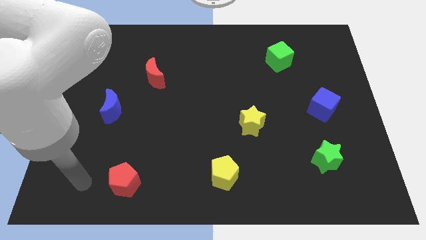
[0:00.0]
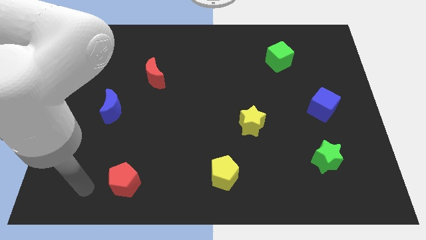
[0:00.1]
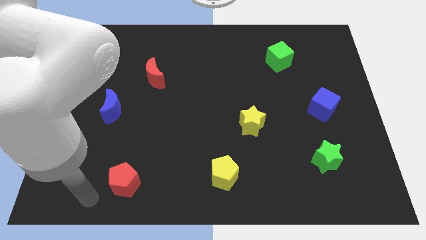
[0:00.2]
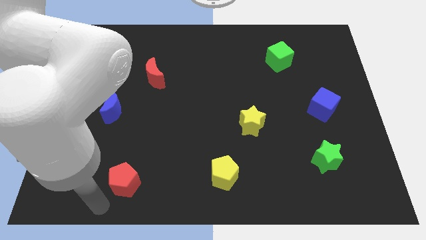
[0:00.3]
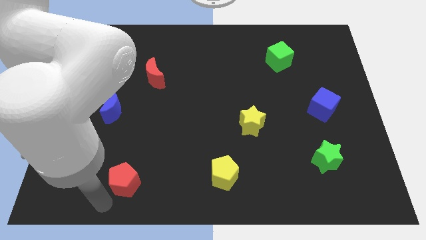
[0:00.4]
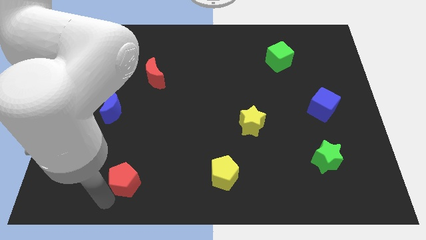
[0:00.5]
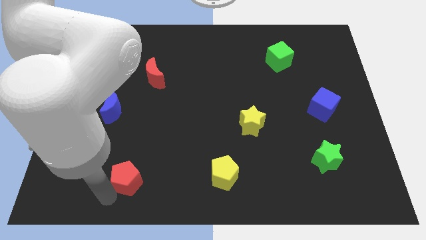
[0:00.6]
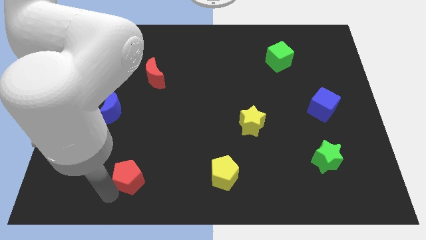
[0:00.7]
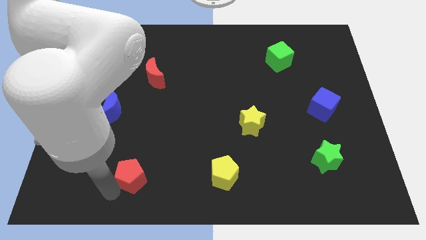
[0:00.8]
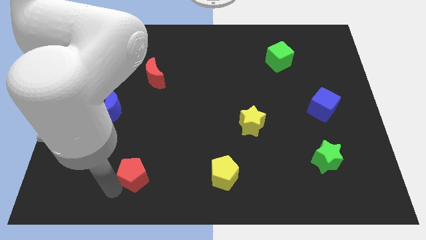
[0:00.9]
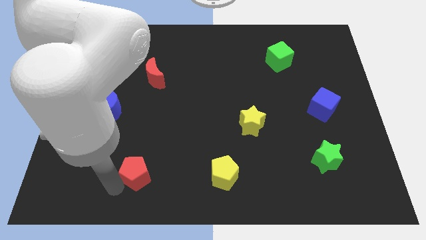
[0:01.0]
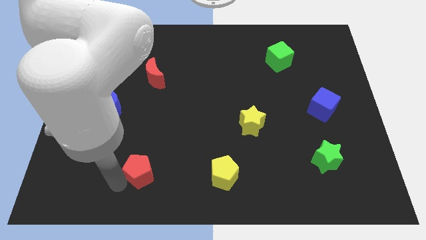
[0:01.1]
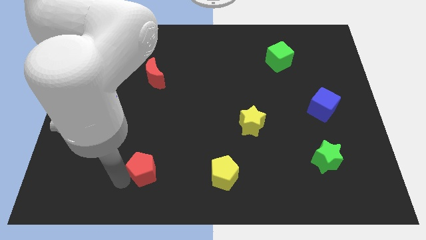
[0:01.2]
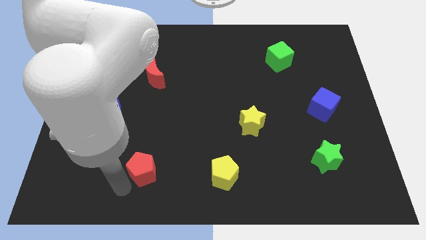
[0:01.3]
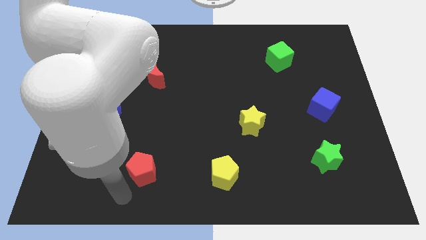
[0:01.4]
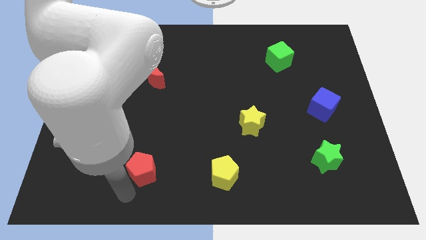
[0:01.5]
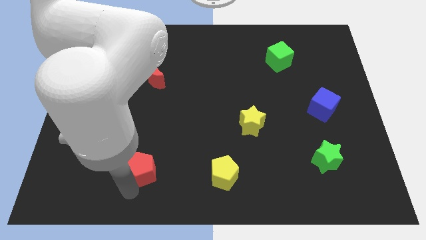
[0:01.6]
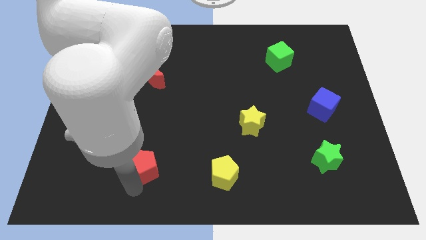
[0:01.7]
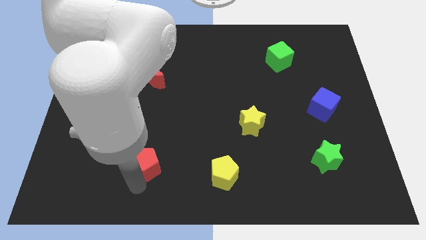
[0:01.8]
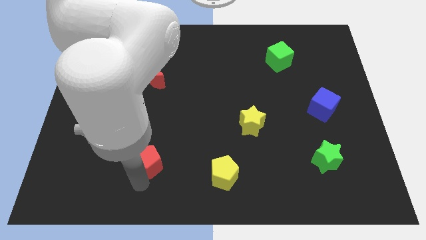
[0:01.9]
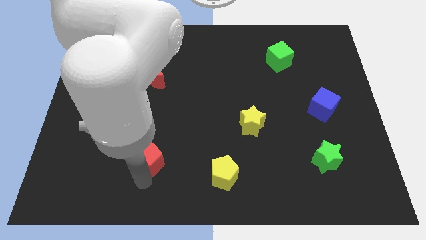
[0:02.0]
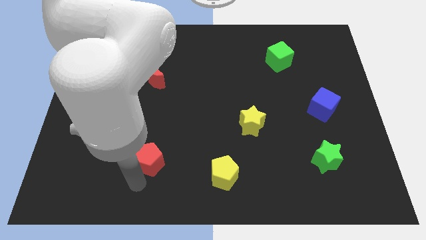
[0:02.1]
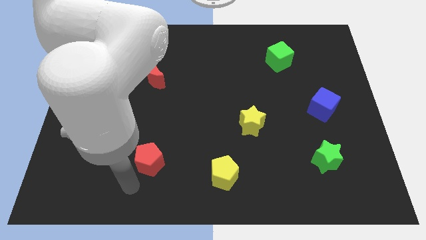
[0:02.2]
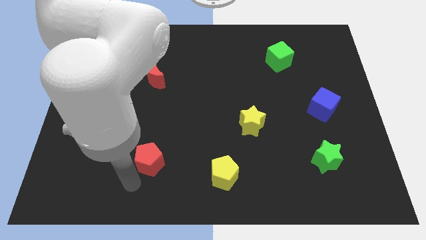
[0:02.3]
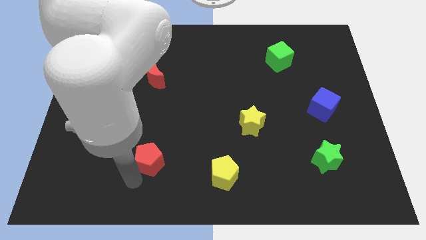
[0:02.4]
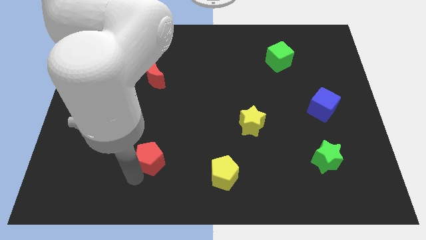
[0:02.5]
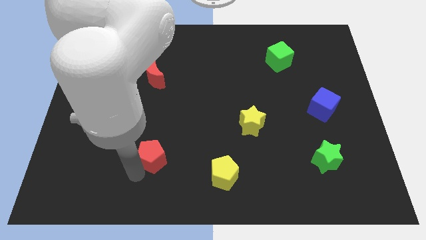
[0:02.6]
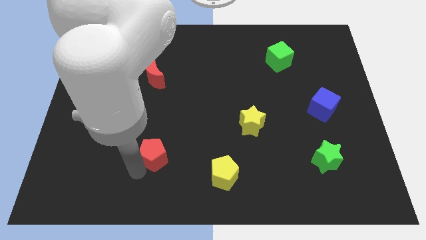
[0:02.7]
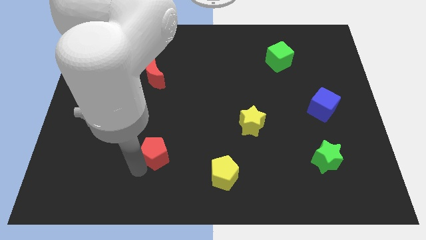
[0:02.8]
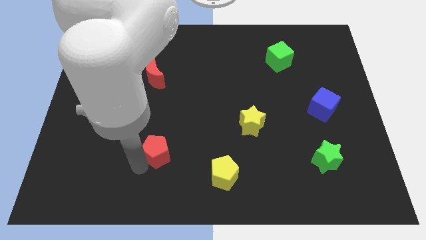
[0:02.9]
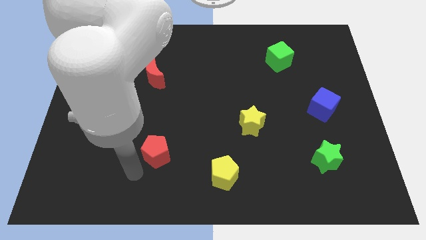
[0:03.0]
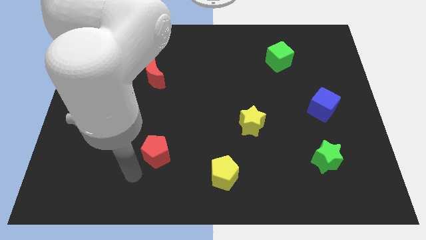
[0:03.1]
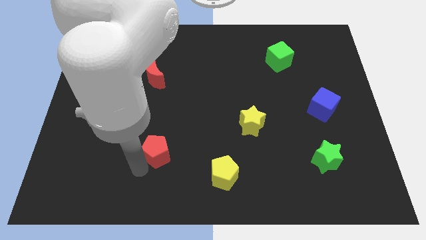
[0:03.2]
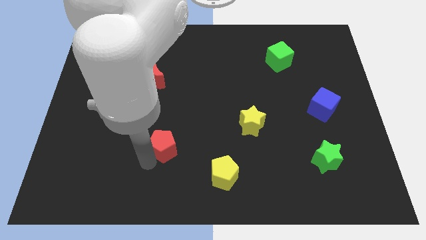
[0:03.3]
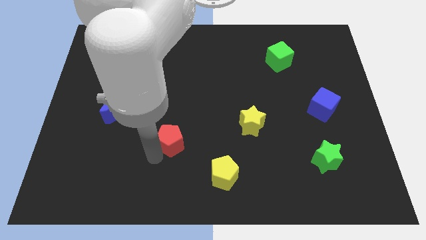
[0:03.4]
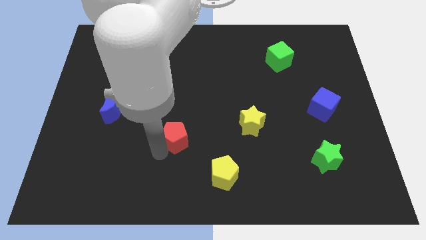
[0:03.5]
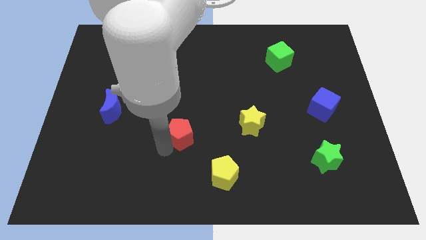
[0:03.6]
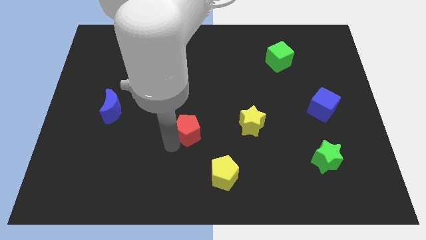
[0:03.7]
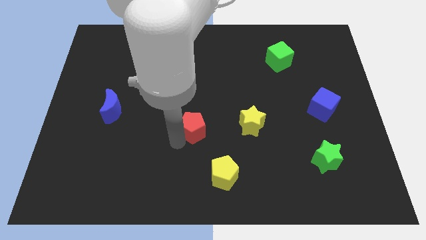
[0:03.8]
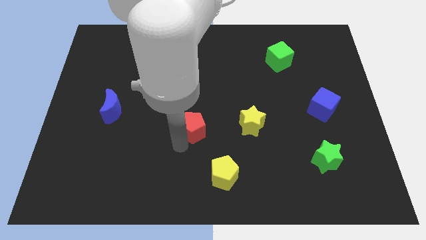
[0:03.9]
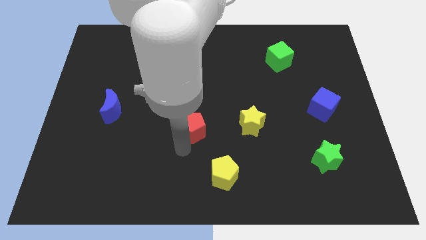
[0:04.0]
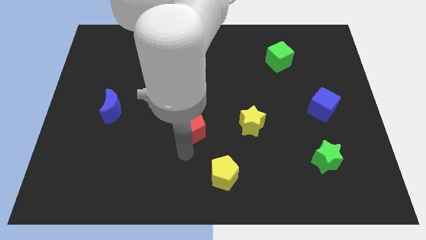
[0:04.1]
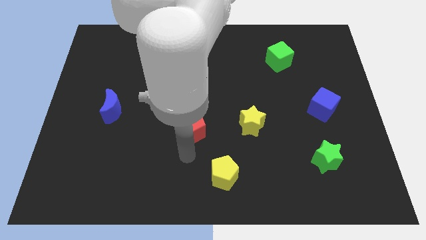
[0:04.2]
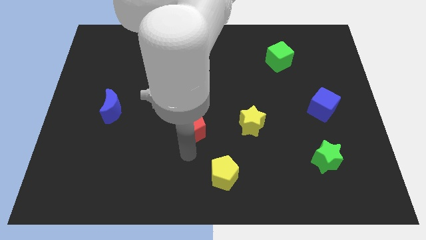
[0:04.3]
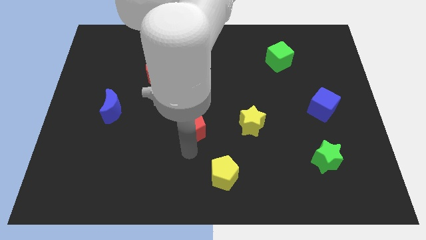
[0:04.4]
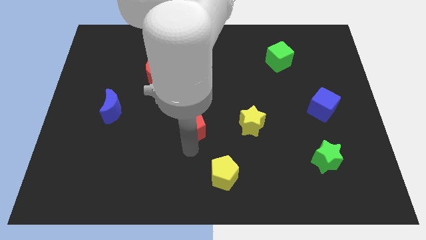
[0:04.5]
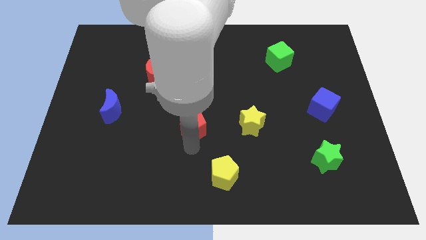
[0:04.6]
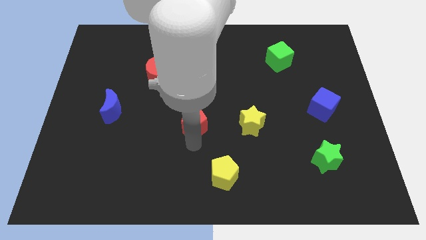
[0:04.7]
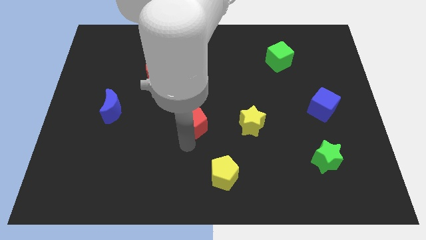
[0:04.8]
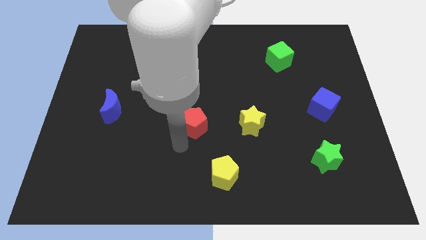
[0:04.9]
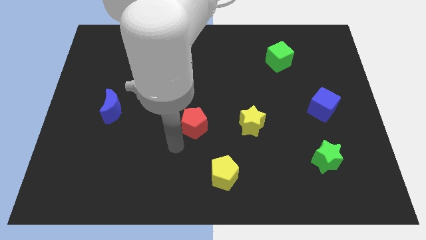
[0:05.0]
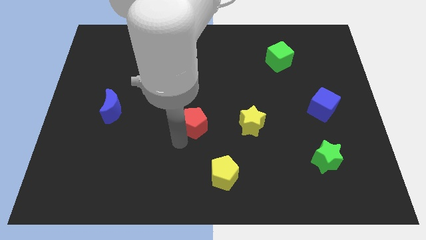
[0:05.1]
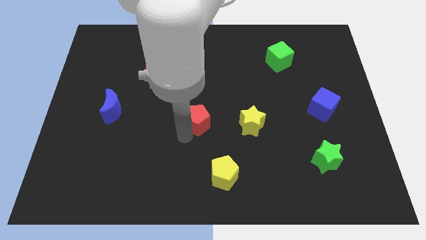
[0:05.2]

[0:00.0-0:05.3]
move the red pentagon up and right

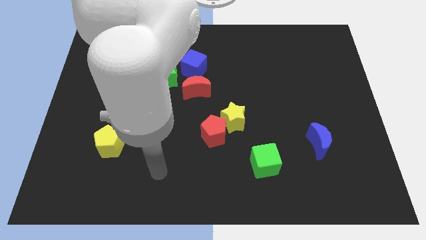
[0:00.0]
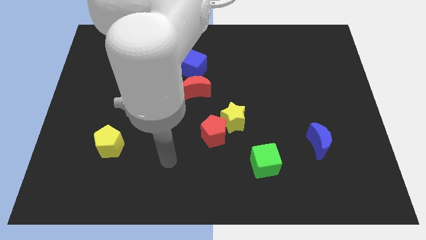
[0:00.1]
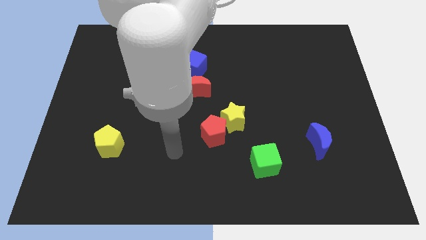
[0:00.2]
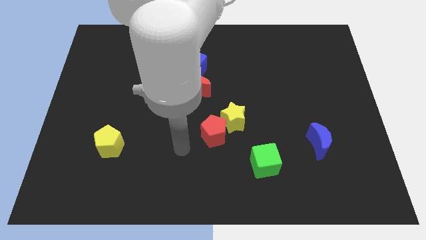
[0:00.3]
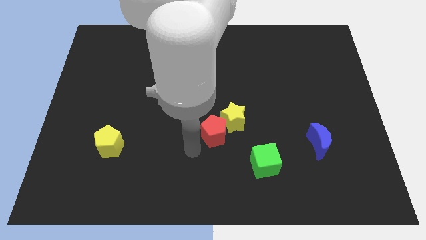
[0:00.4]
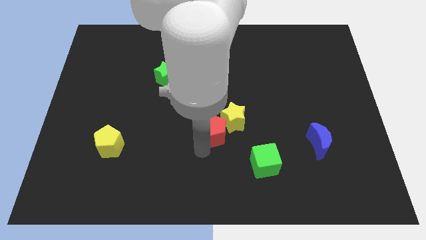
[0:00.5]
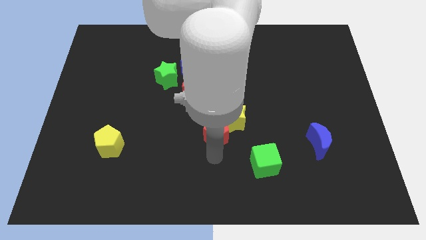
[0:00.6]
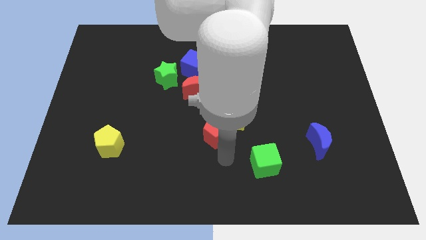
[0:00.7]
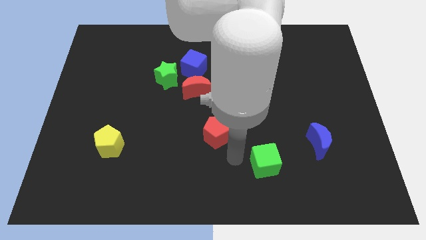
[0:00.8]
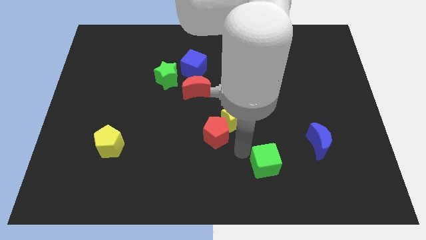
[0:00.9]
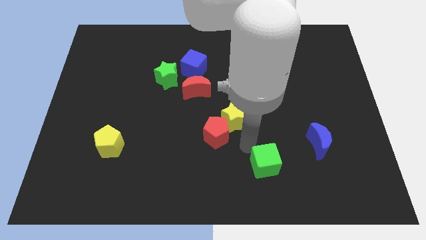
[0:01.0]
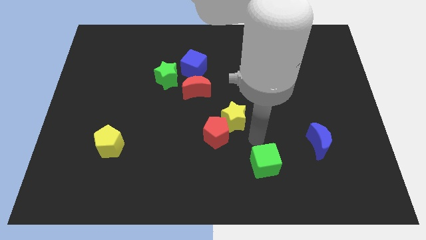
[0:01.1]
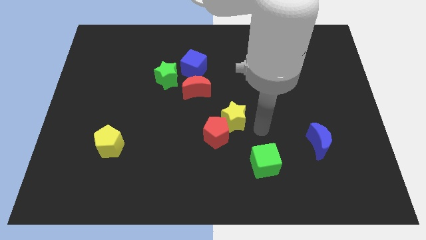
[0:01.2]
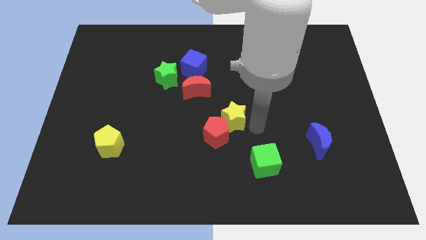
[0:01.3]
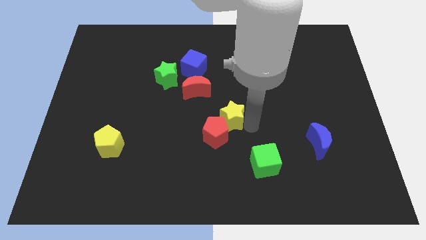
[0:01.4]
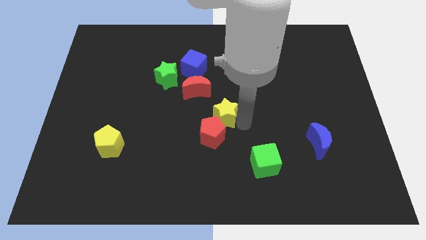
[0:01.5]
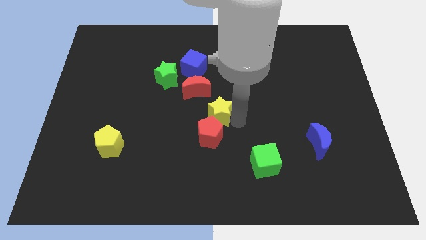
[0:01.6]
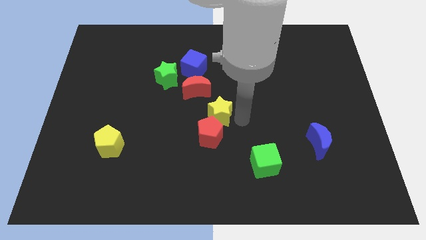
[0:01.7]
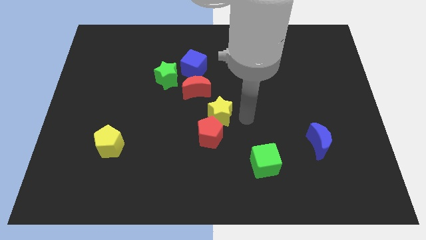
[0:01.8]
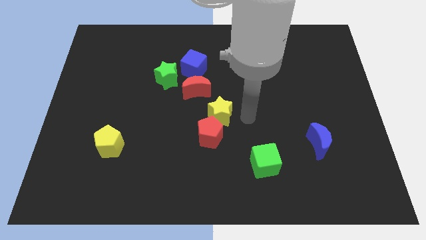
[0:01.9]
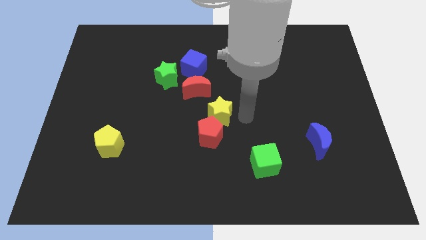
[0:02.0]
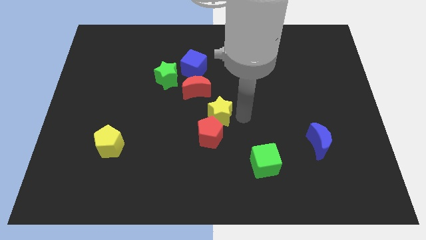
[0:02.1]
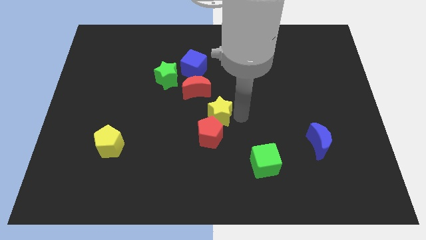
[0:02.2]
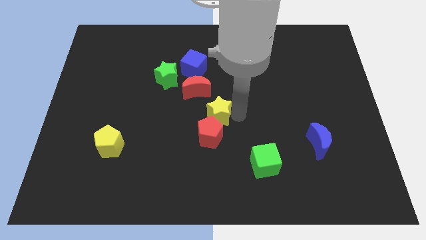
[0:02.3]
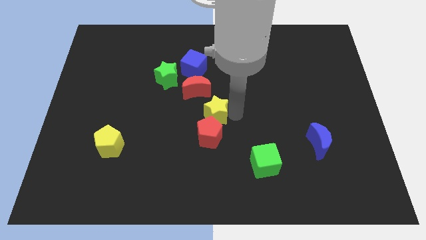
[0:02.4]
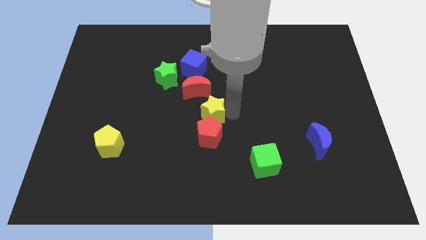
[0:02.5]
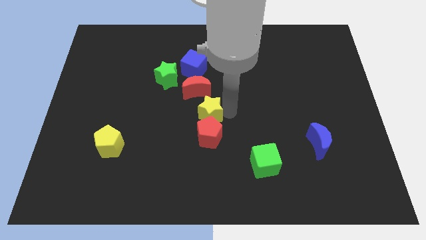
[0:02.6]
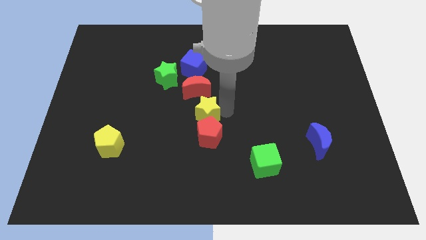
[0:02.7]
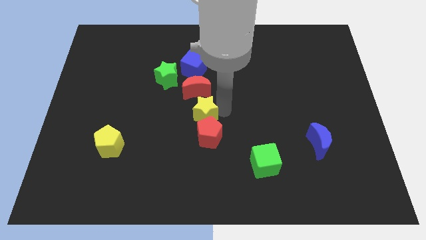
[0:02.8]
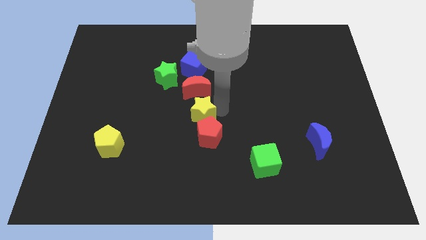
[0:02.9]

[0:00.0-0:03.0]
slightly slide the yellow star to the left
